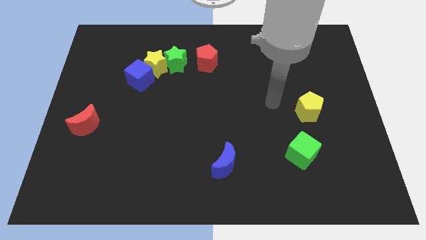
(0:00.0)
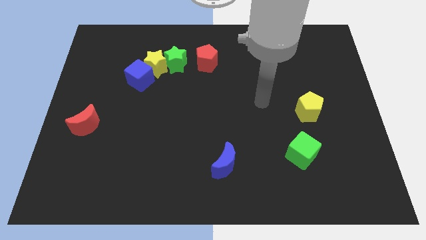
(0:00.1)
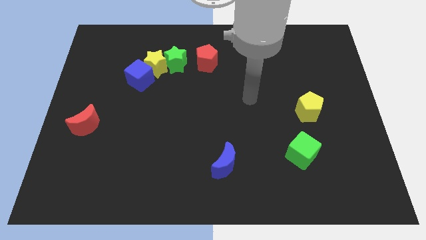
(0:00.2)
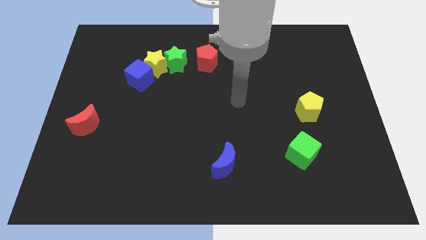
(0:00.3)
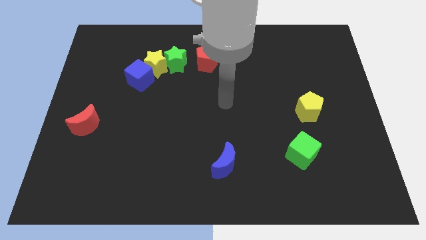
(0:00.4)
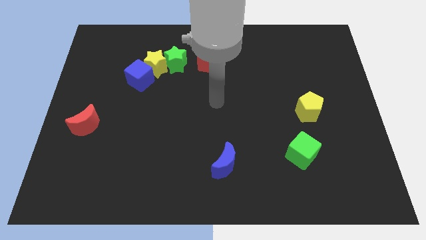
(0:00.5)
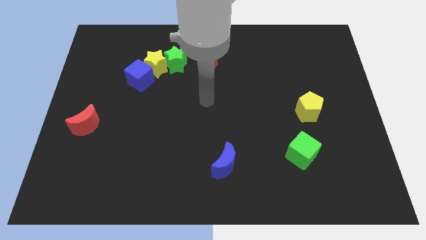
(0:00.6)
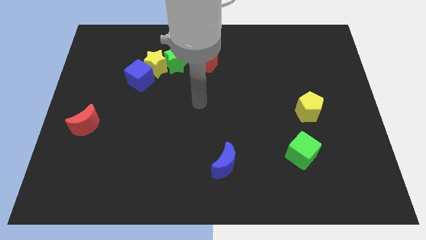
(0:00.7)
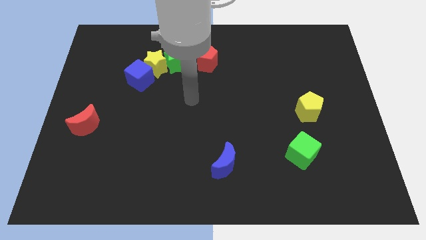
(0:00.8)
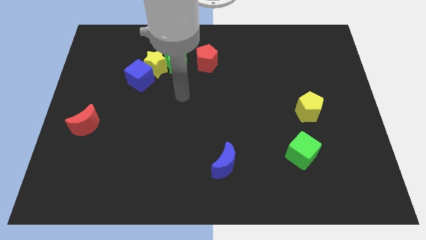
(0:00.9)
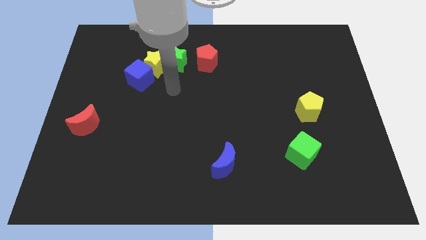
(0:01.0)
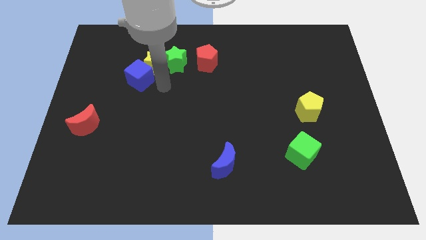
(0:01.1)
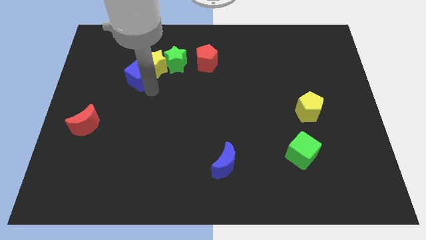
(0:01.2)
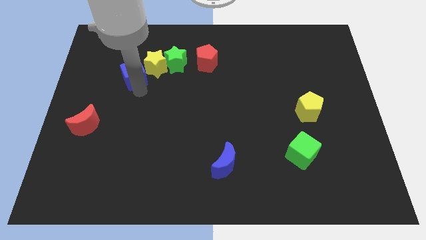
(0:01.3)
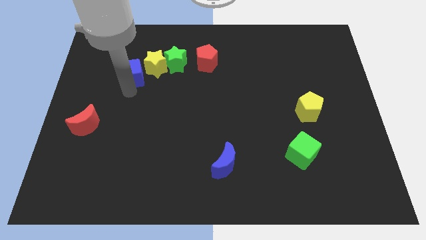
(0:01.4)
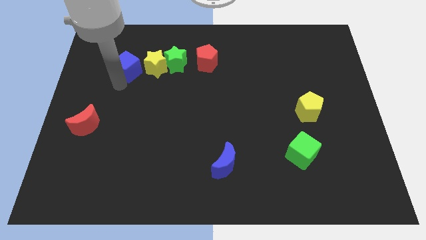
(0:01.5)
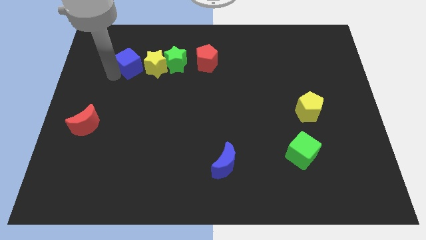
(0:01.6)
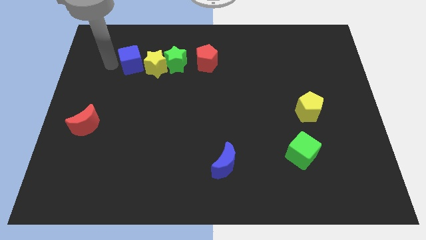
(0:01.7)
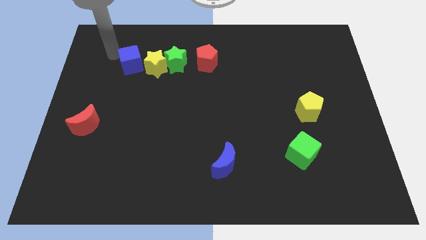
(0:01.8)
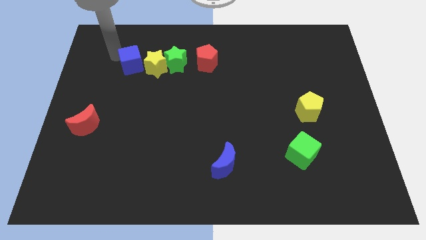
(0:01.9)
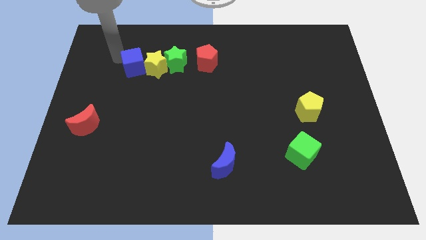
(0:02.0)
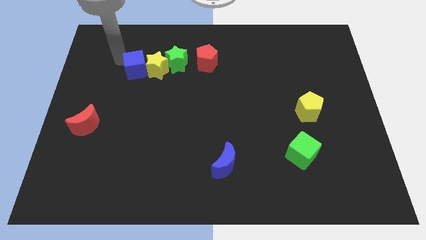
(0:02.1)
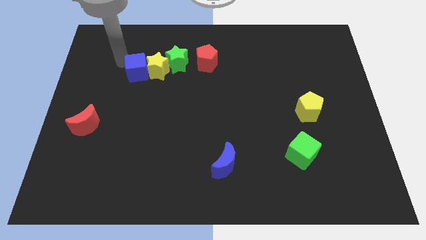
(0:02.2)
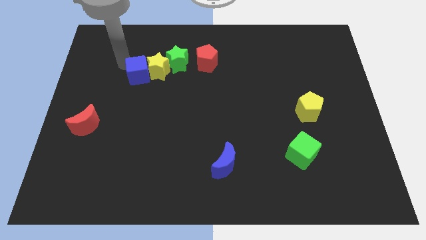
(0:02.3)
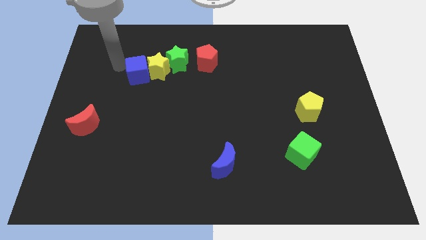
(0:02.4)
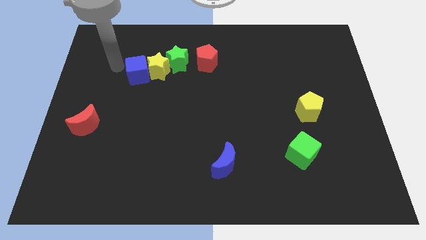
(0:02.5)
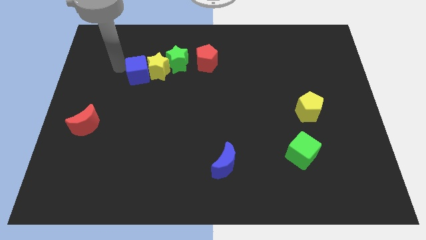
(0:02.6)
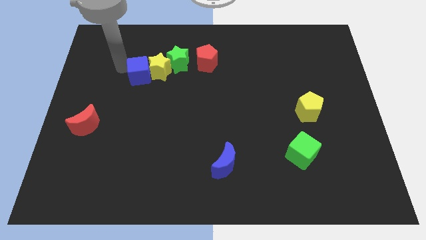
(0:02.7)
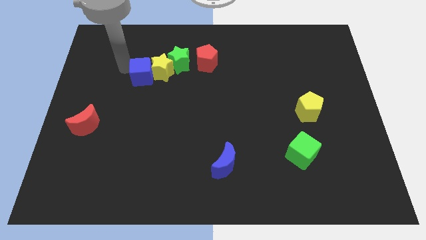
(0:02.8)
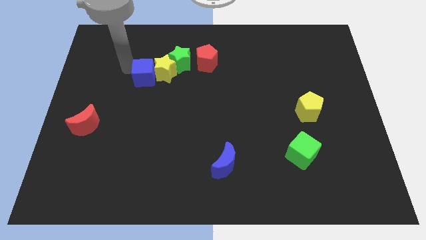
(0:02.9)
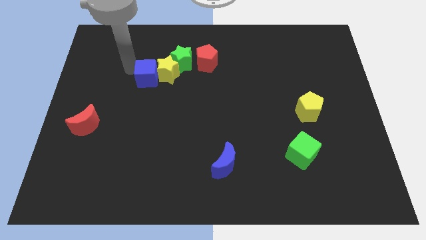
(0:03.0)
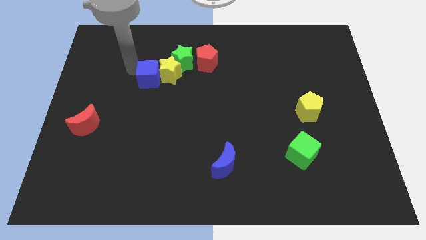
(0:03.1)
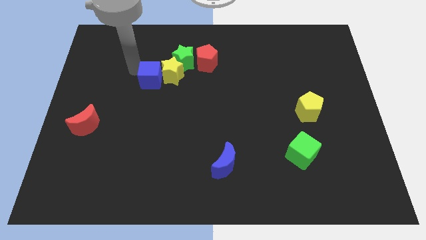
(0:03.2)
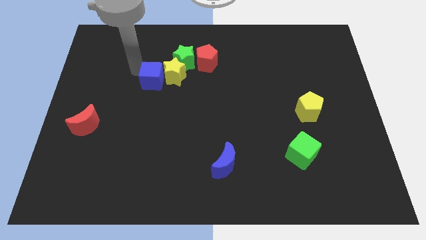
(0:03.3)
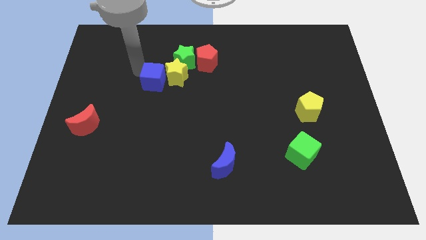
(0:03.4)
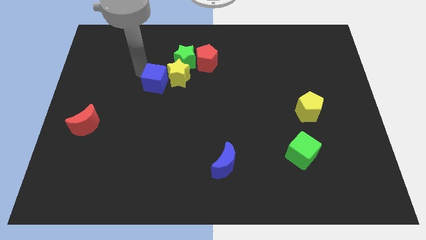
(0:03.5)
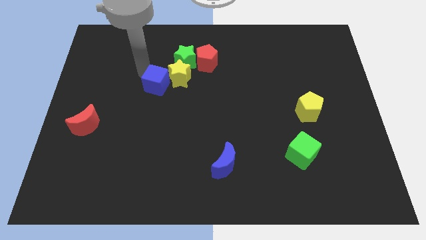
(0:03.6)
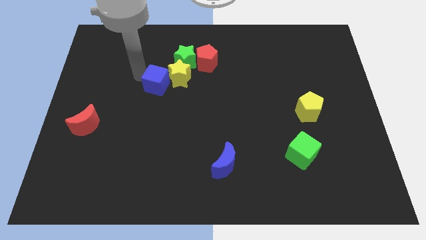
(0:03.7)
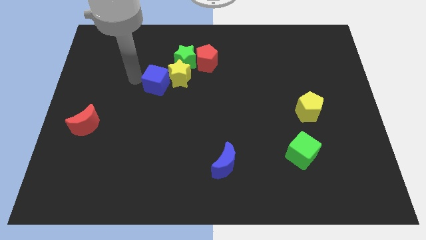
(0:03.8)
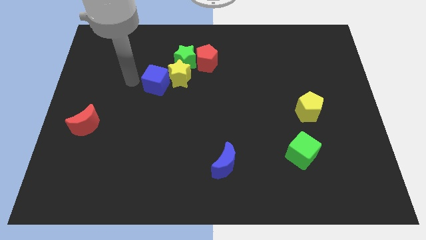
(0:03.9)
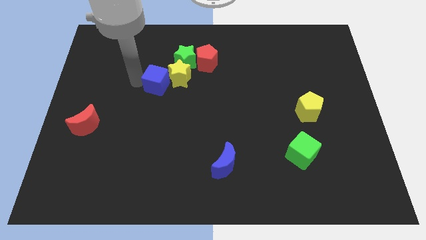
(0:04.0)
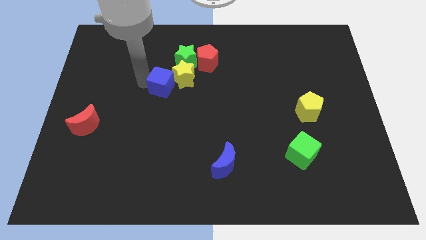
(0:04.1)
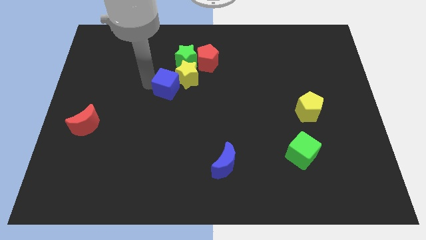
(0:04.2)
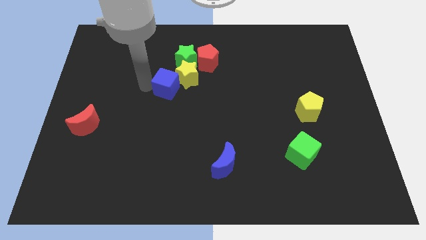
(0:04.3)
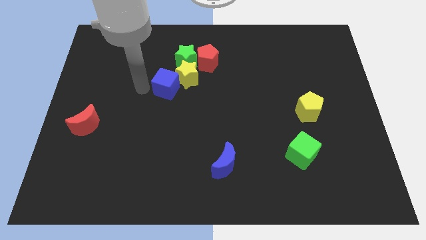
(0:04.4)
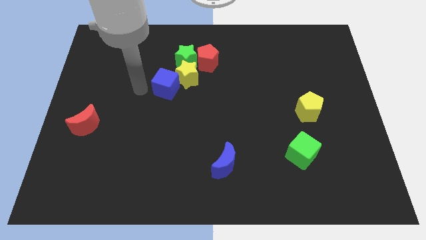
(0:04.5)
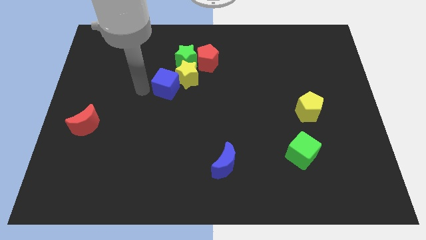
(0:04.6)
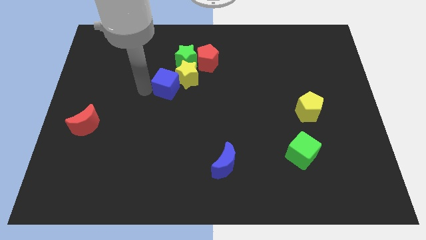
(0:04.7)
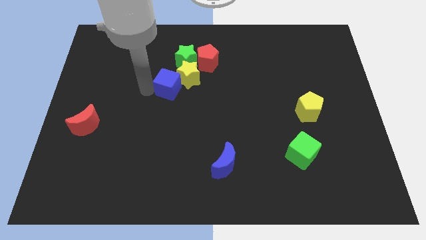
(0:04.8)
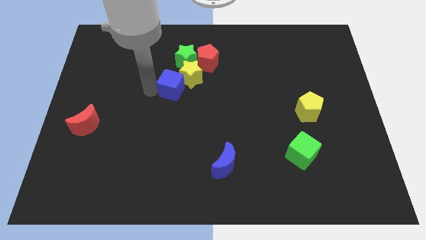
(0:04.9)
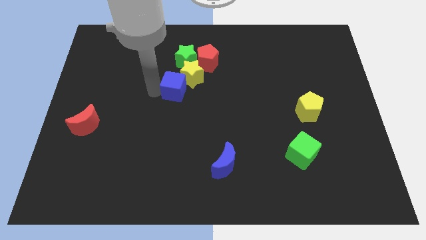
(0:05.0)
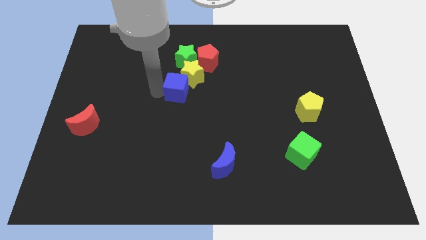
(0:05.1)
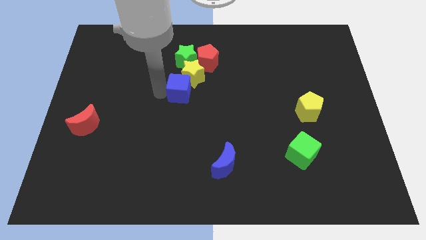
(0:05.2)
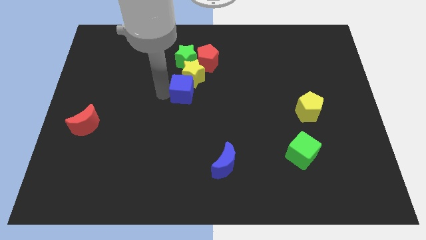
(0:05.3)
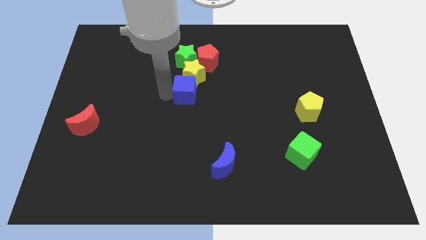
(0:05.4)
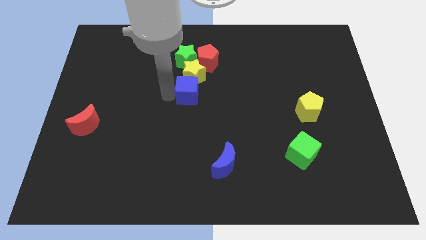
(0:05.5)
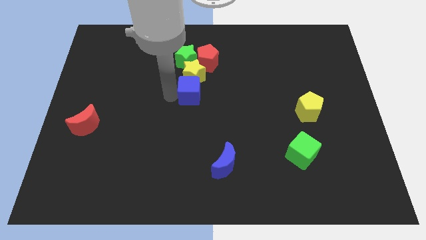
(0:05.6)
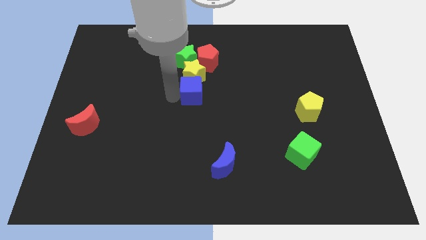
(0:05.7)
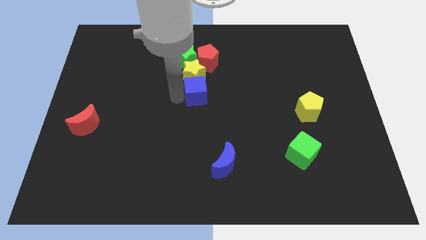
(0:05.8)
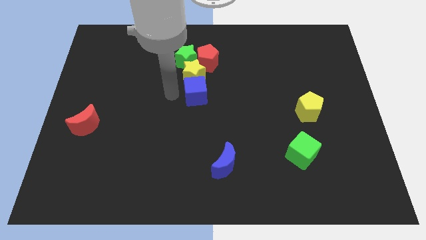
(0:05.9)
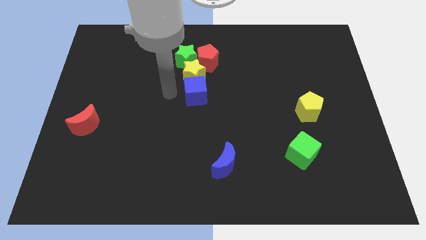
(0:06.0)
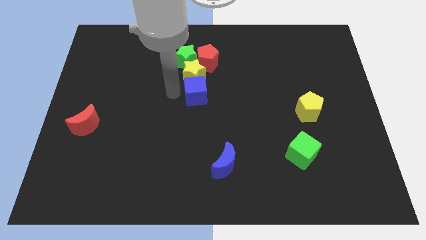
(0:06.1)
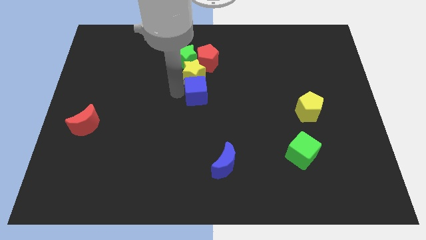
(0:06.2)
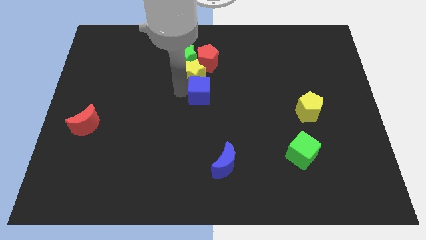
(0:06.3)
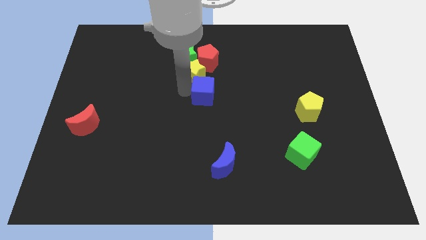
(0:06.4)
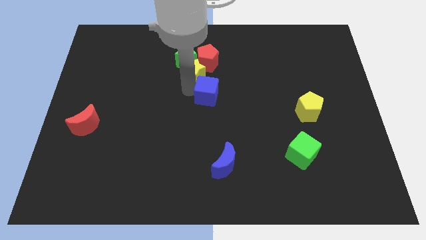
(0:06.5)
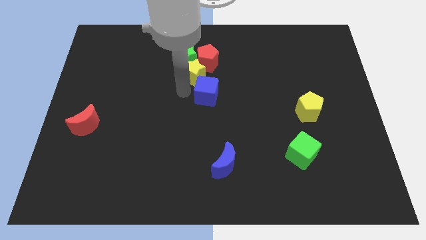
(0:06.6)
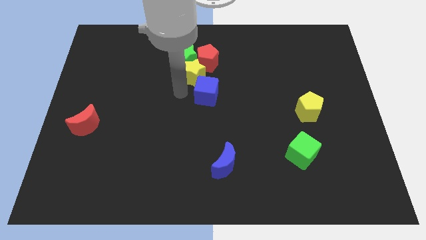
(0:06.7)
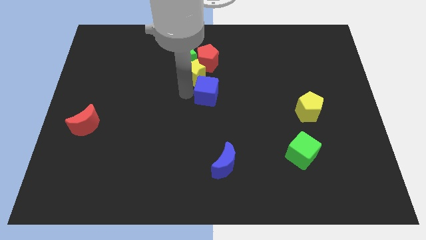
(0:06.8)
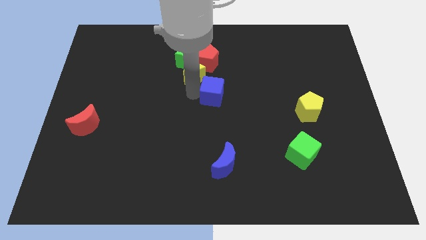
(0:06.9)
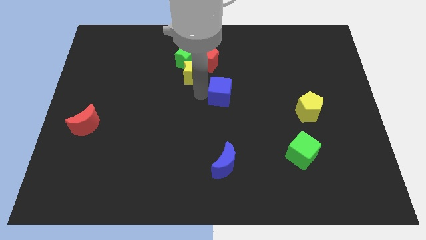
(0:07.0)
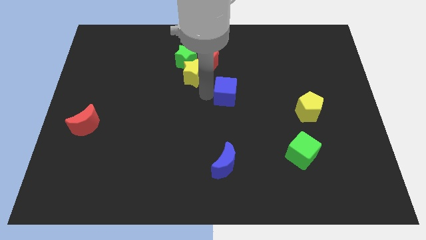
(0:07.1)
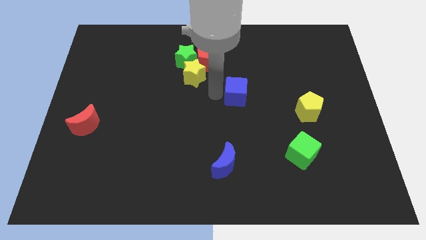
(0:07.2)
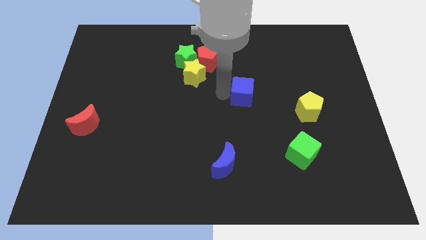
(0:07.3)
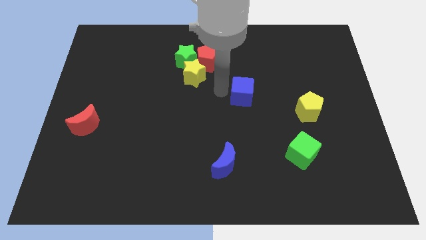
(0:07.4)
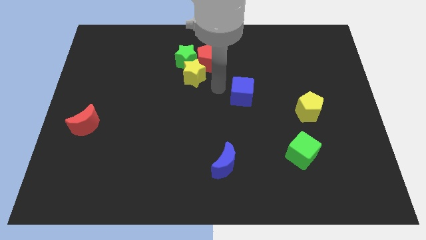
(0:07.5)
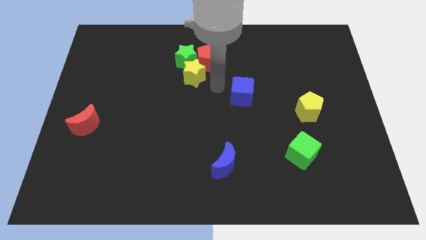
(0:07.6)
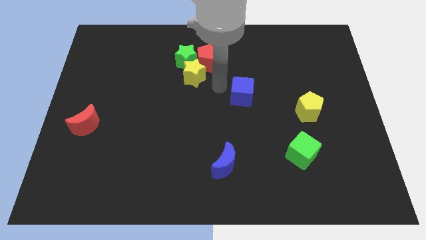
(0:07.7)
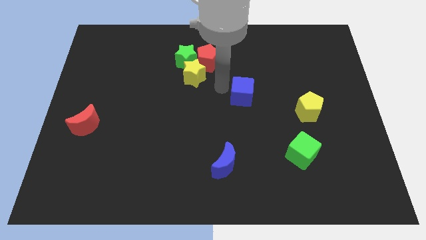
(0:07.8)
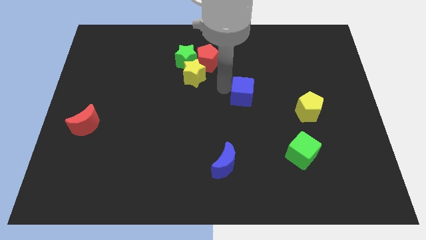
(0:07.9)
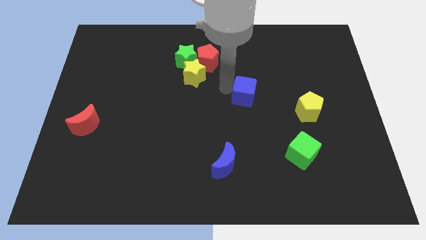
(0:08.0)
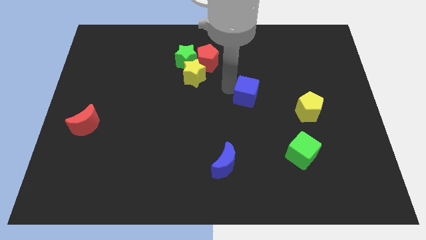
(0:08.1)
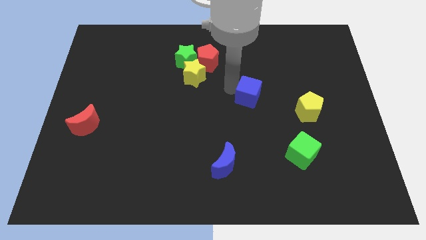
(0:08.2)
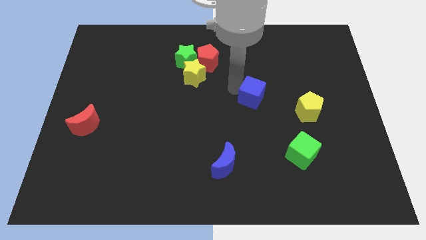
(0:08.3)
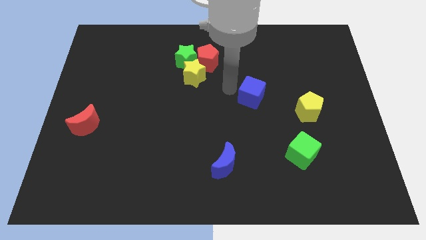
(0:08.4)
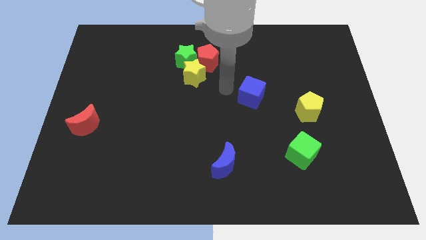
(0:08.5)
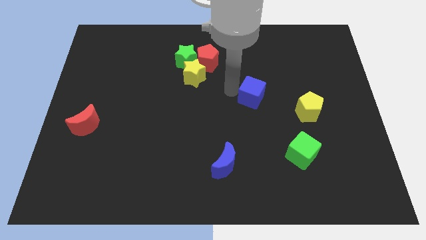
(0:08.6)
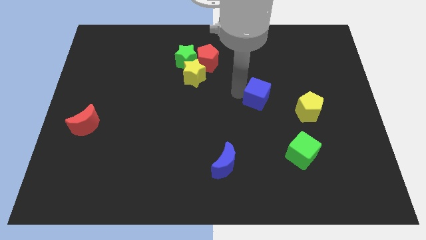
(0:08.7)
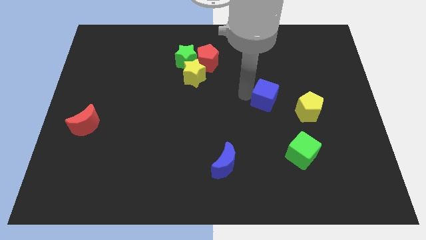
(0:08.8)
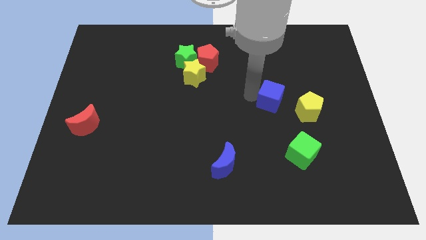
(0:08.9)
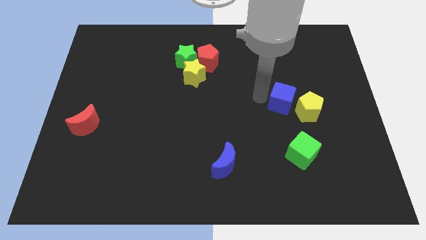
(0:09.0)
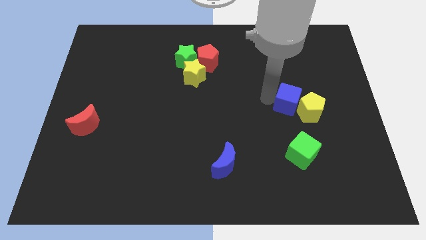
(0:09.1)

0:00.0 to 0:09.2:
put the blue cube next to the yellow pentagon
